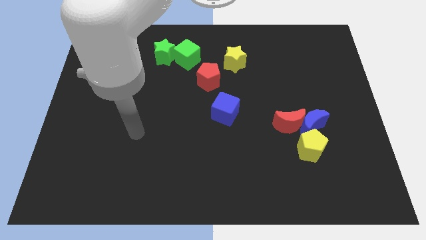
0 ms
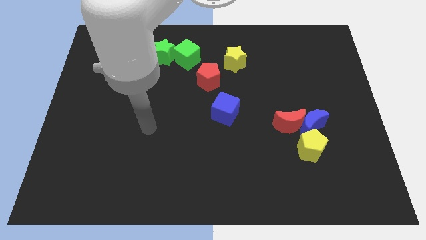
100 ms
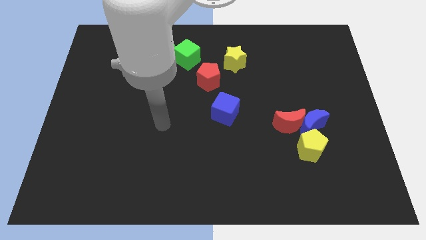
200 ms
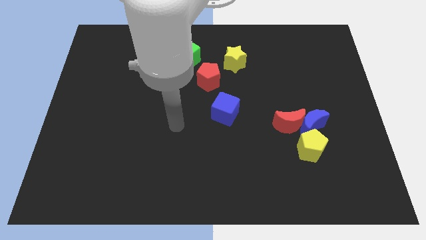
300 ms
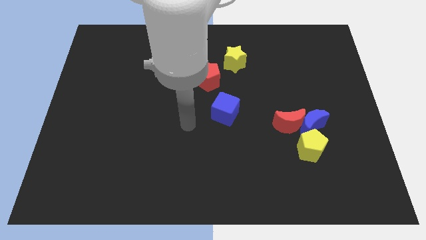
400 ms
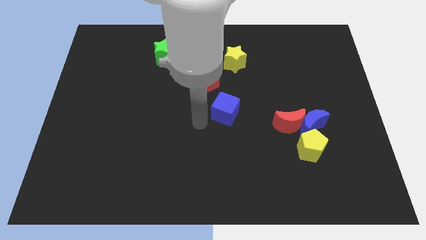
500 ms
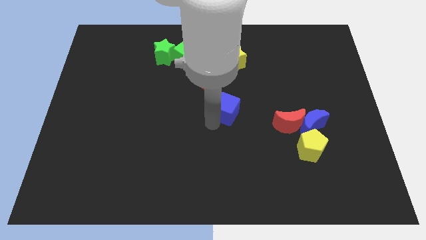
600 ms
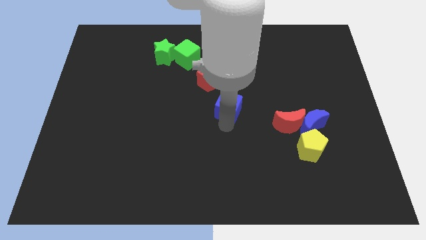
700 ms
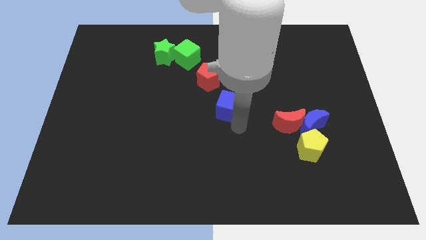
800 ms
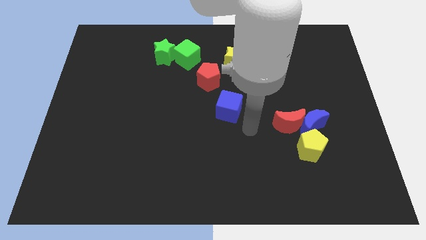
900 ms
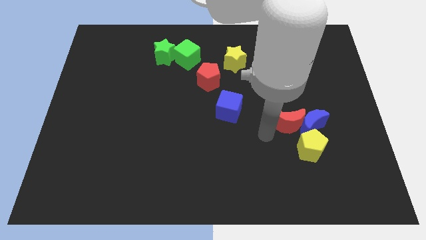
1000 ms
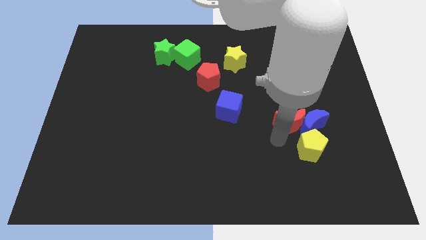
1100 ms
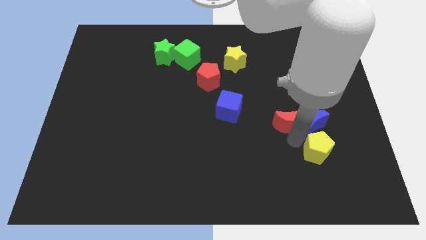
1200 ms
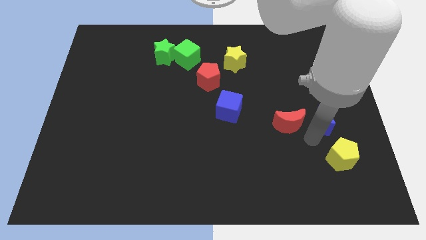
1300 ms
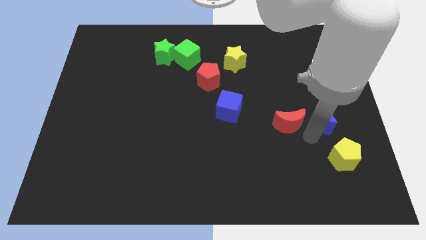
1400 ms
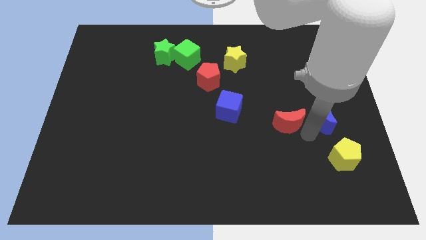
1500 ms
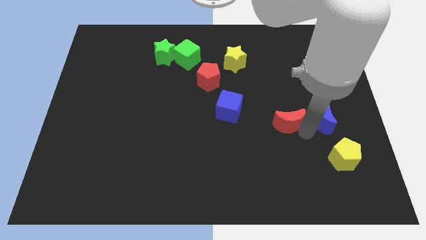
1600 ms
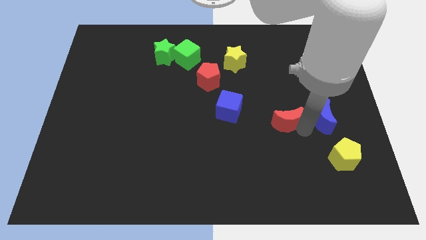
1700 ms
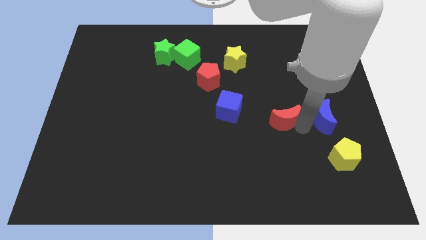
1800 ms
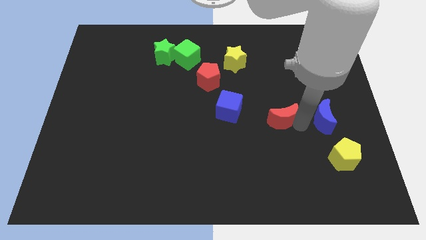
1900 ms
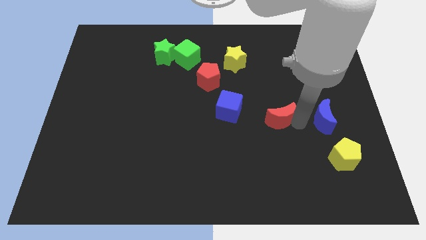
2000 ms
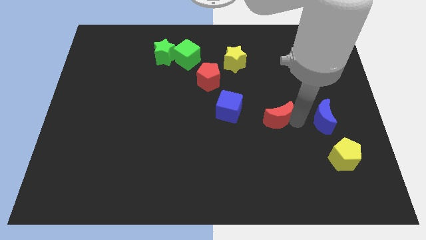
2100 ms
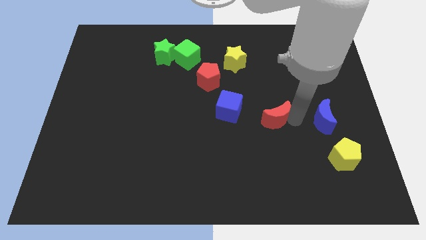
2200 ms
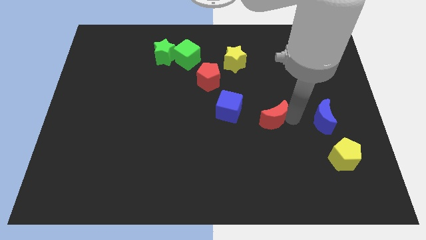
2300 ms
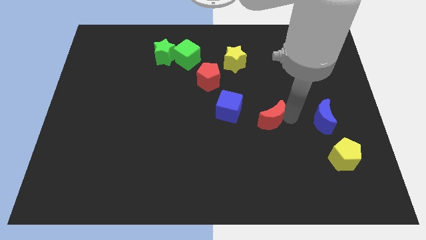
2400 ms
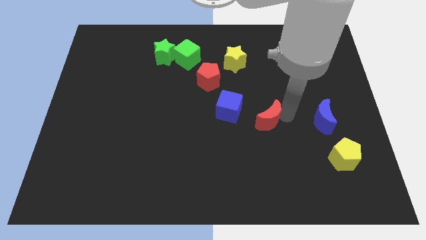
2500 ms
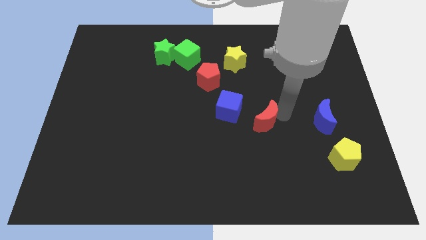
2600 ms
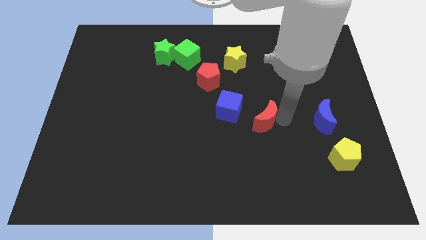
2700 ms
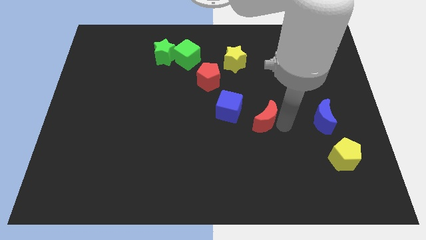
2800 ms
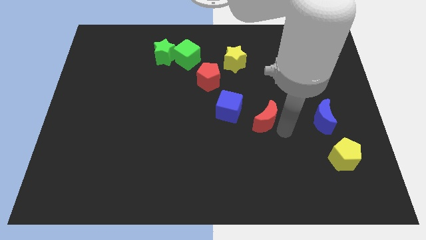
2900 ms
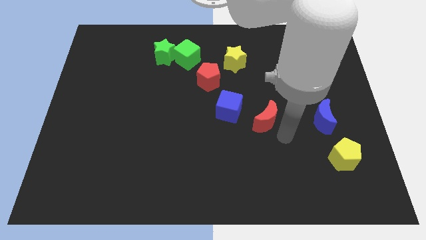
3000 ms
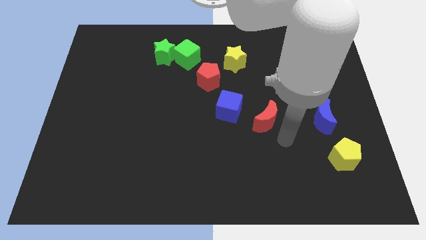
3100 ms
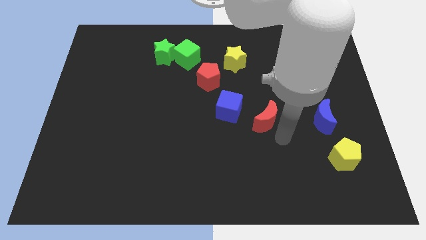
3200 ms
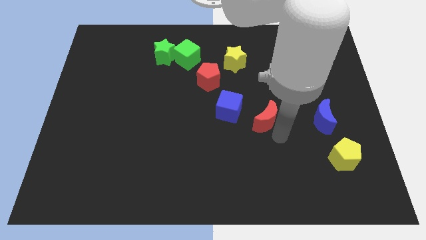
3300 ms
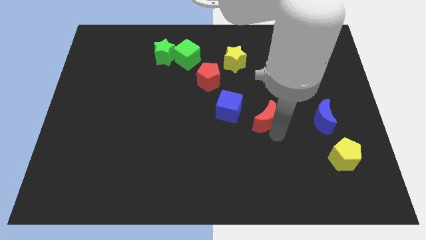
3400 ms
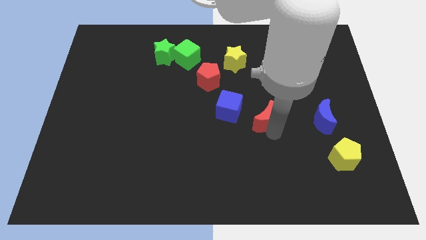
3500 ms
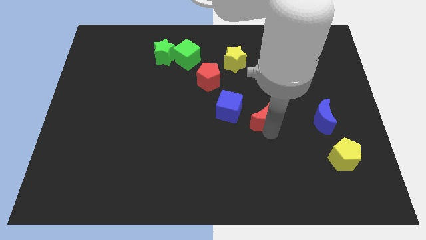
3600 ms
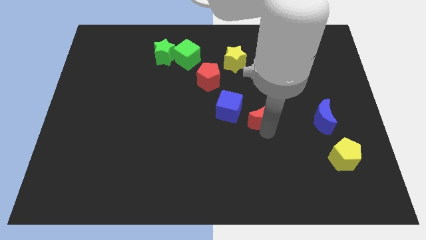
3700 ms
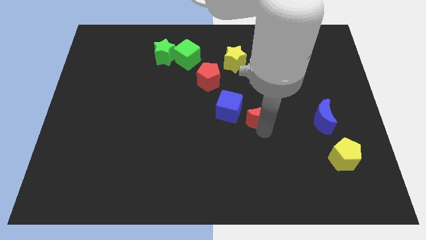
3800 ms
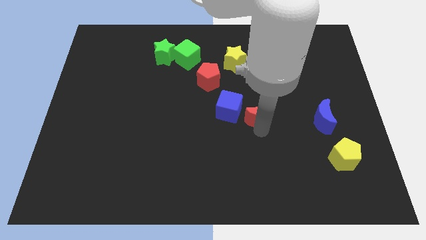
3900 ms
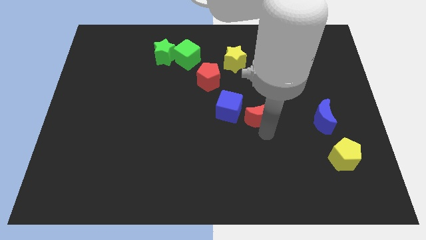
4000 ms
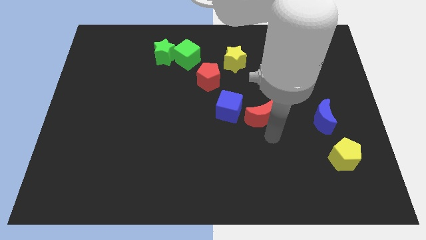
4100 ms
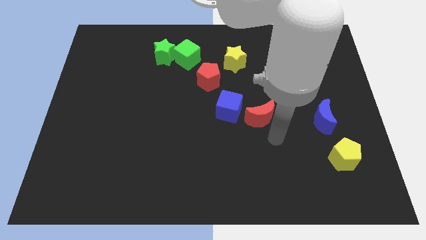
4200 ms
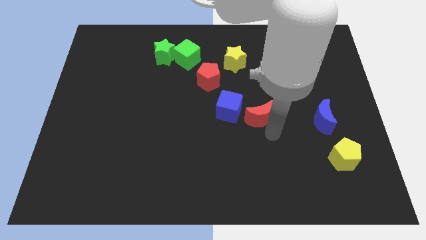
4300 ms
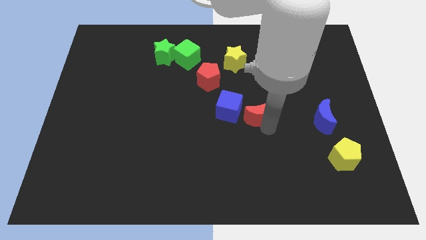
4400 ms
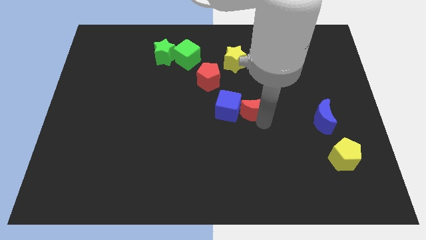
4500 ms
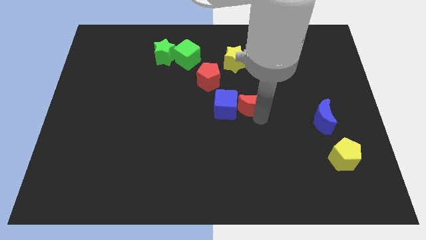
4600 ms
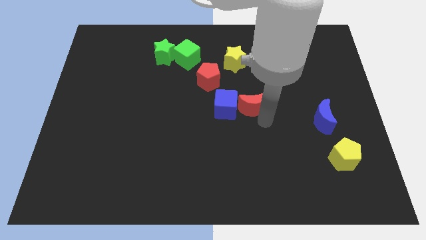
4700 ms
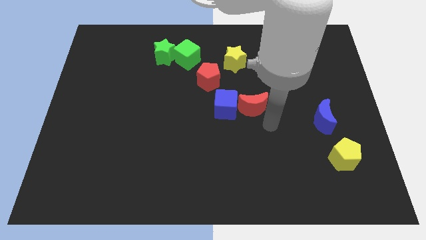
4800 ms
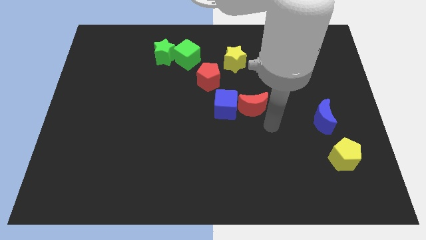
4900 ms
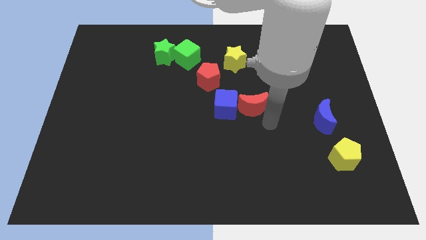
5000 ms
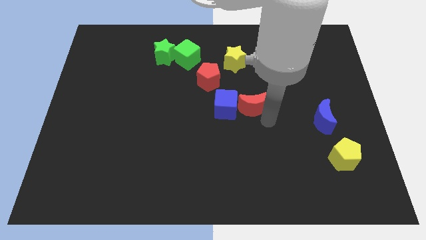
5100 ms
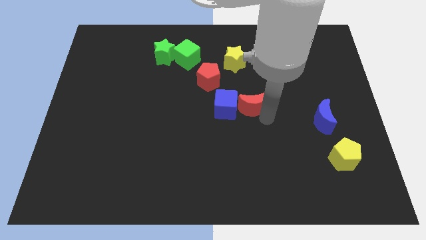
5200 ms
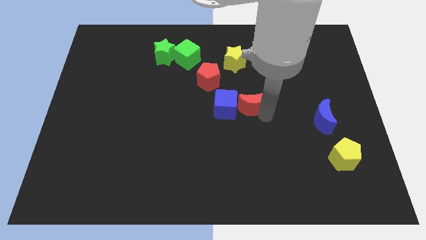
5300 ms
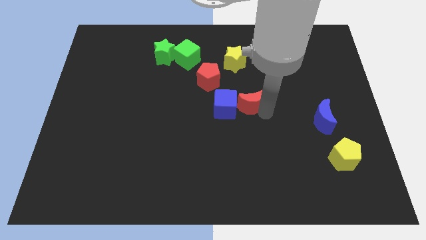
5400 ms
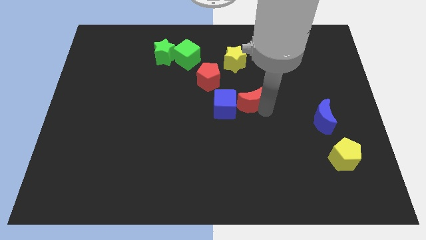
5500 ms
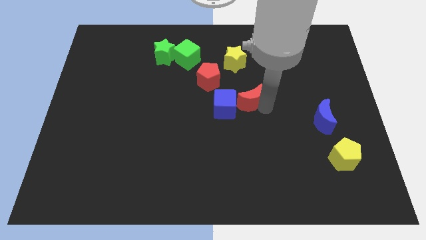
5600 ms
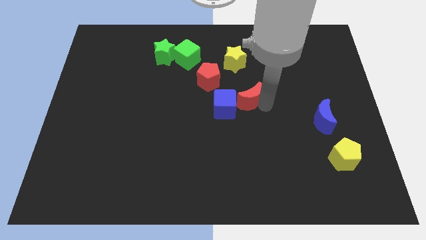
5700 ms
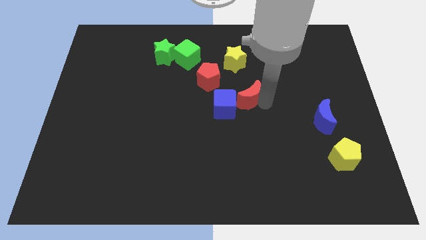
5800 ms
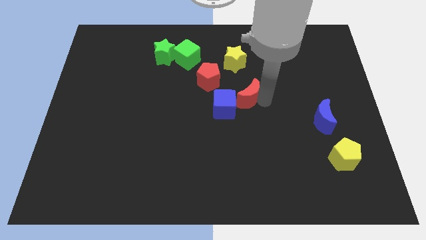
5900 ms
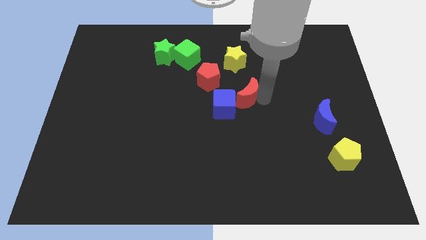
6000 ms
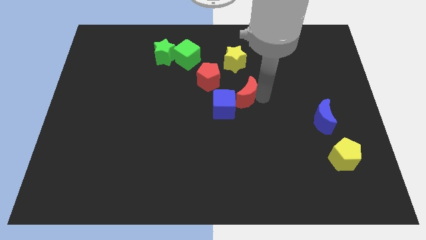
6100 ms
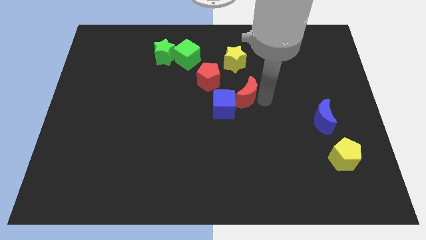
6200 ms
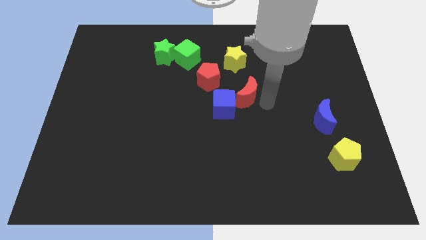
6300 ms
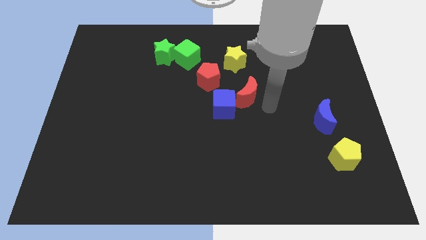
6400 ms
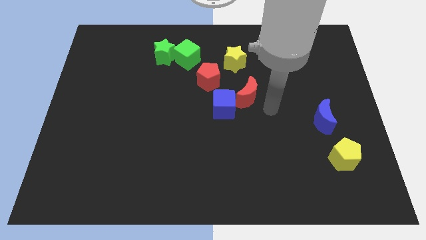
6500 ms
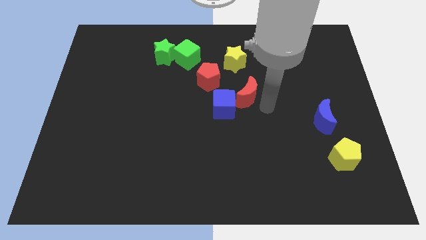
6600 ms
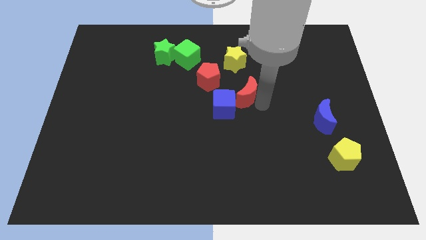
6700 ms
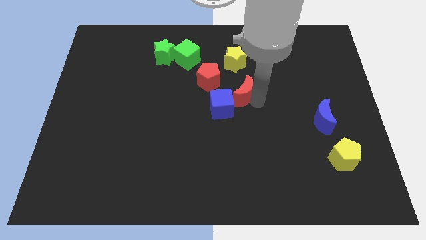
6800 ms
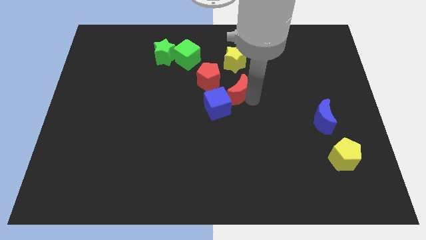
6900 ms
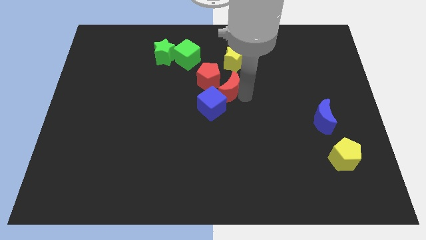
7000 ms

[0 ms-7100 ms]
slide the red moon towards the red pentagon

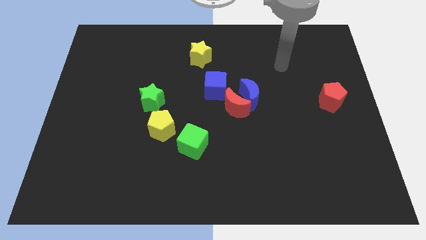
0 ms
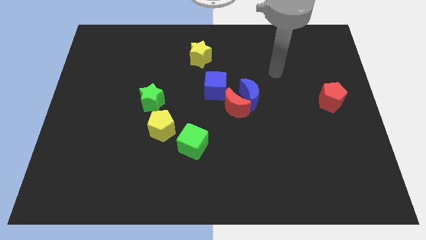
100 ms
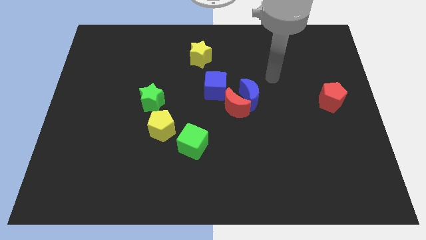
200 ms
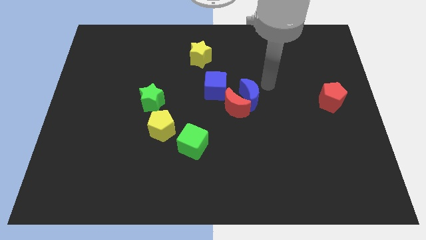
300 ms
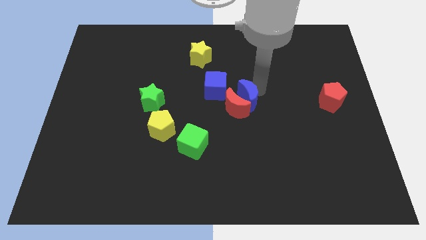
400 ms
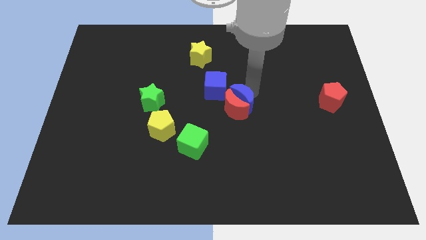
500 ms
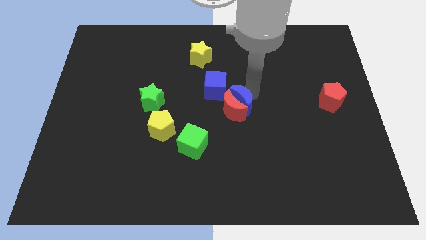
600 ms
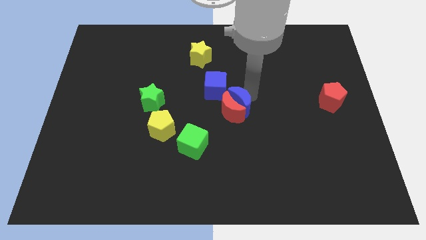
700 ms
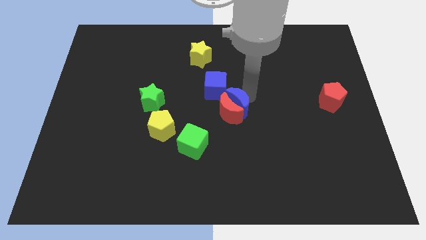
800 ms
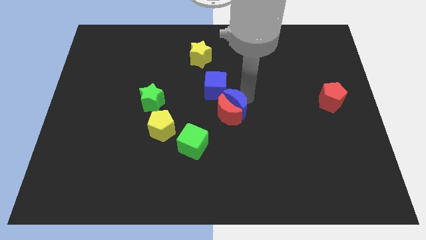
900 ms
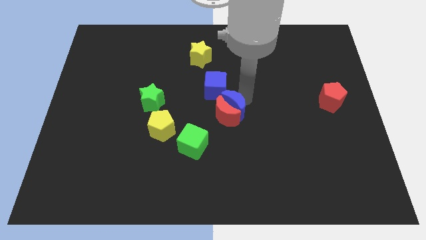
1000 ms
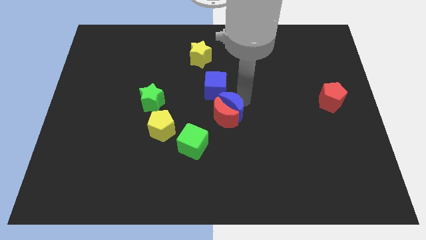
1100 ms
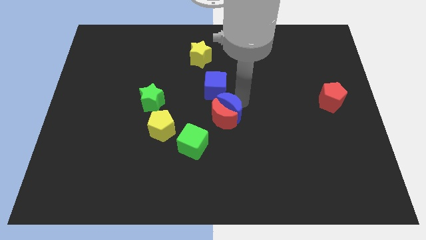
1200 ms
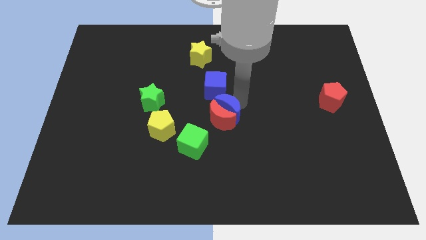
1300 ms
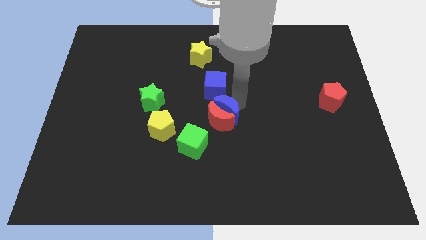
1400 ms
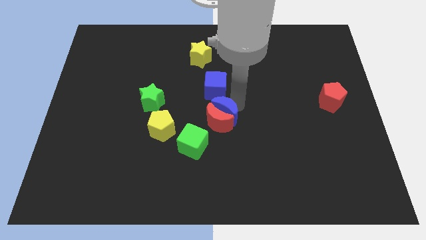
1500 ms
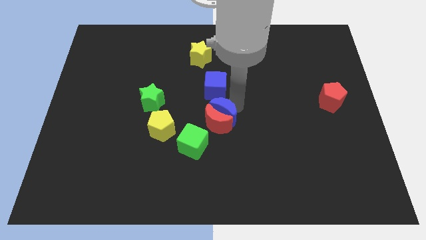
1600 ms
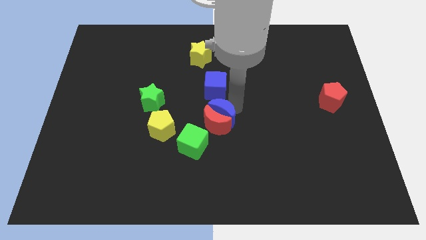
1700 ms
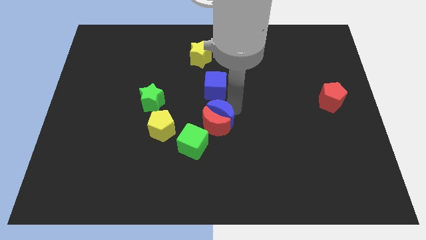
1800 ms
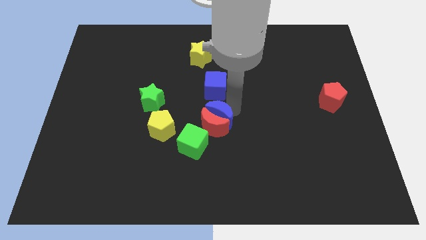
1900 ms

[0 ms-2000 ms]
slide the red moon next to the green cube
